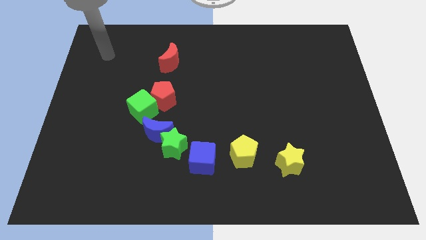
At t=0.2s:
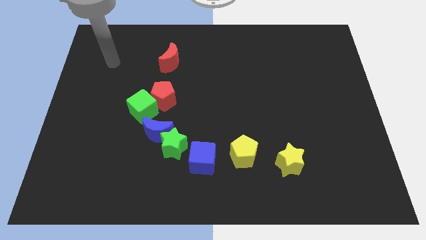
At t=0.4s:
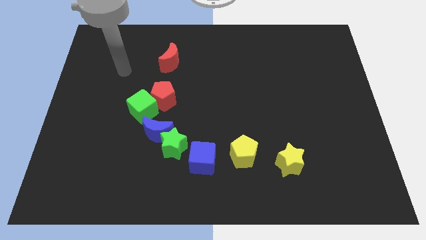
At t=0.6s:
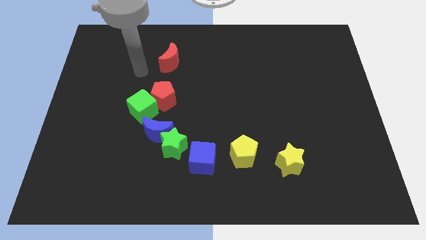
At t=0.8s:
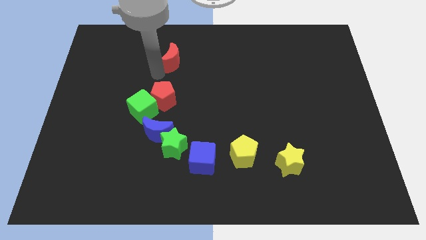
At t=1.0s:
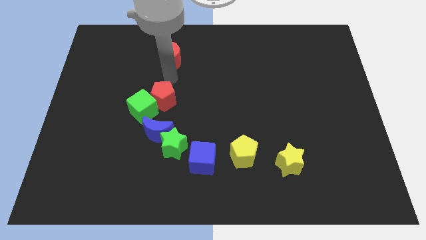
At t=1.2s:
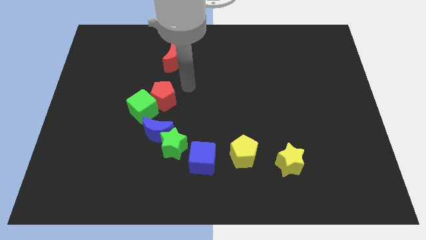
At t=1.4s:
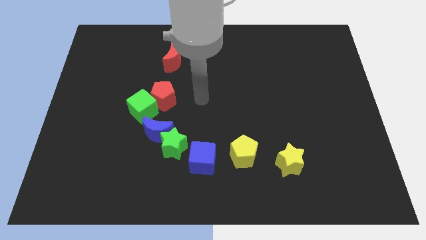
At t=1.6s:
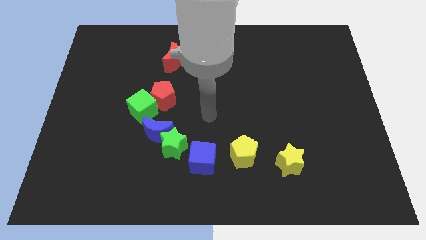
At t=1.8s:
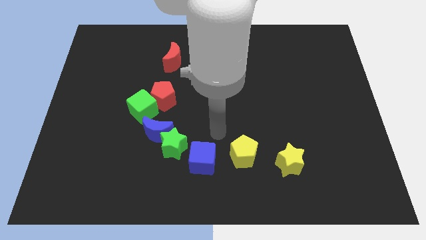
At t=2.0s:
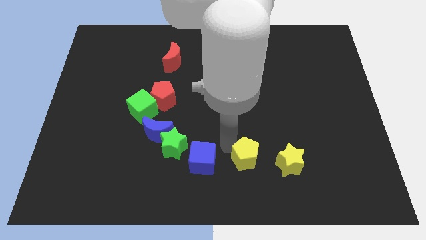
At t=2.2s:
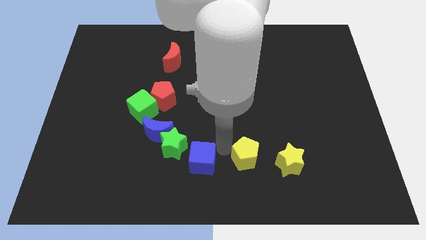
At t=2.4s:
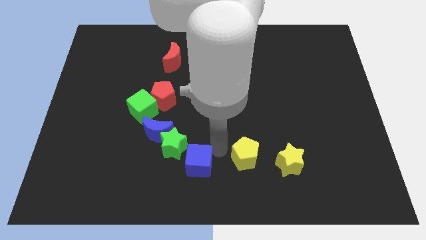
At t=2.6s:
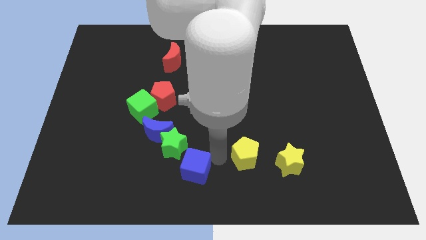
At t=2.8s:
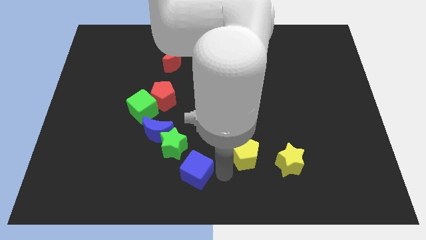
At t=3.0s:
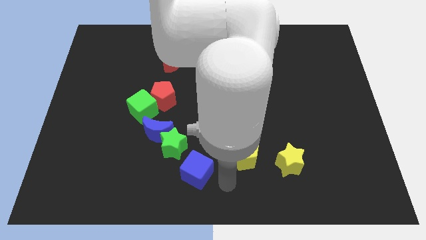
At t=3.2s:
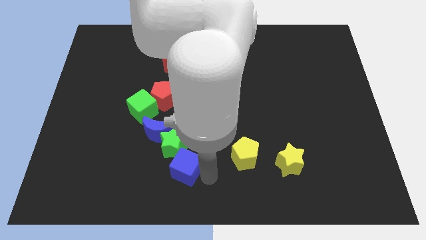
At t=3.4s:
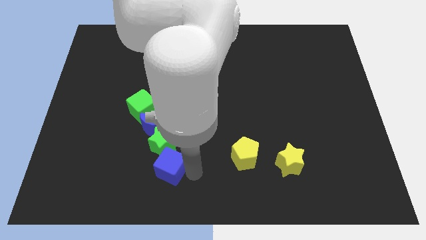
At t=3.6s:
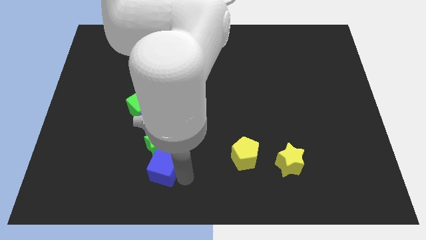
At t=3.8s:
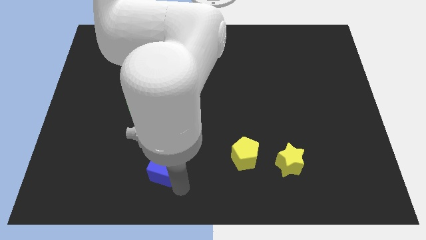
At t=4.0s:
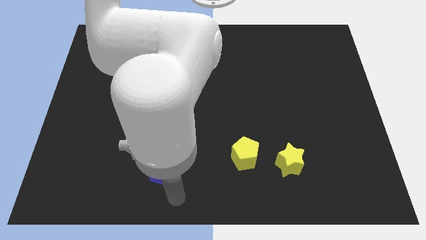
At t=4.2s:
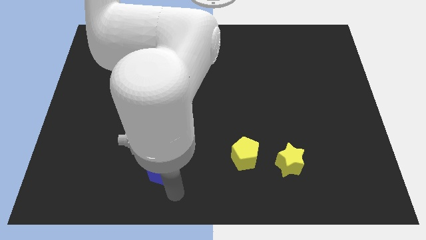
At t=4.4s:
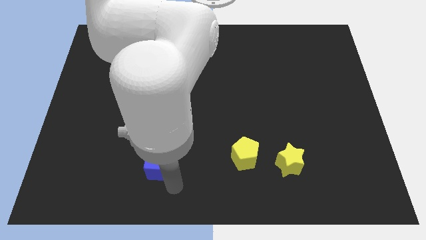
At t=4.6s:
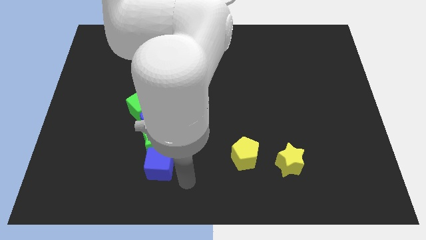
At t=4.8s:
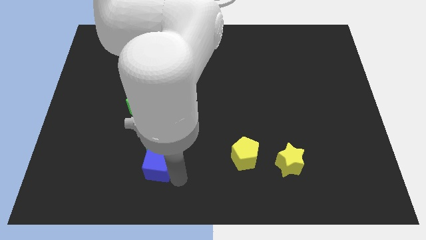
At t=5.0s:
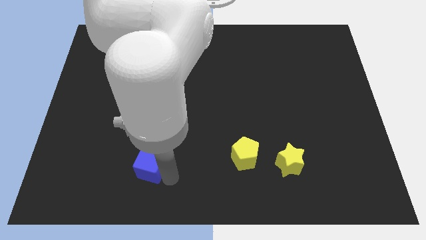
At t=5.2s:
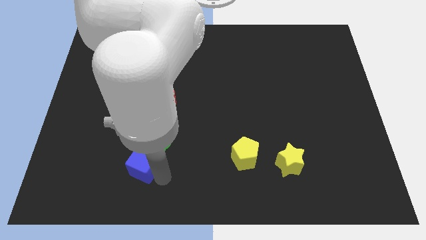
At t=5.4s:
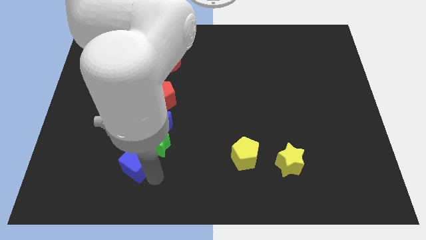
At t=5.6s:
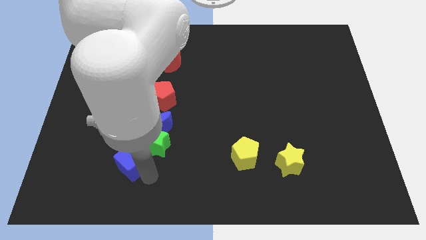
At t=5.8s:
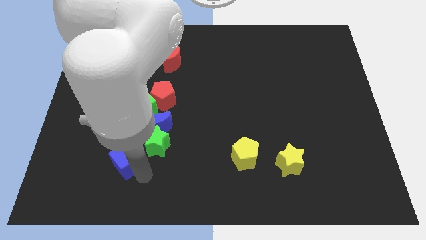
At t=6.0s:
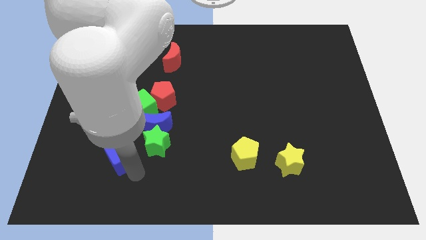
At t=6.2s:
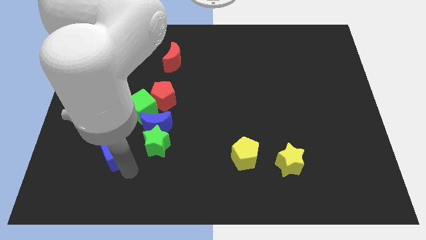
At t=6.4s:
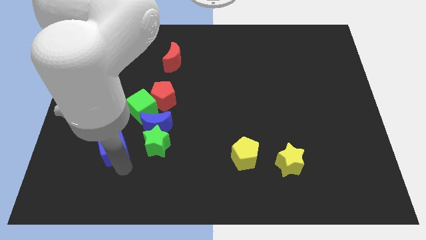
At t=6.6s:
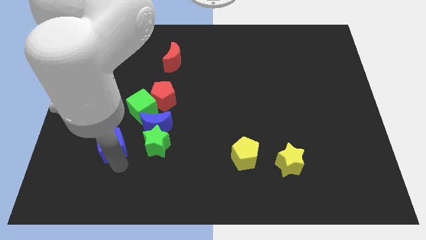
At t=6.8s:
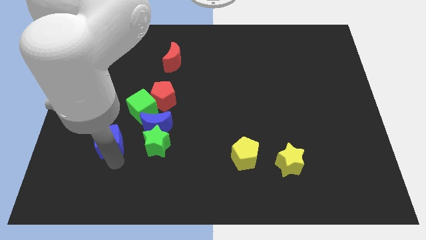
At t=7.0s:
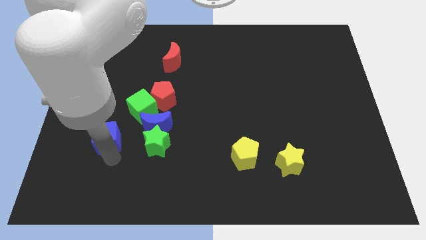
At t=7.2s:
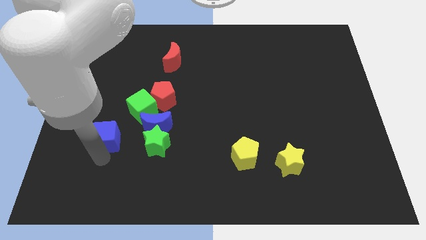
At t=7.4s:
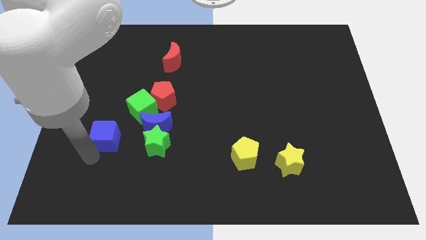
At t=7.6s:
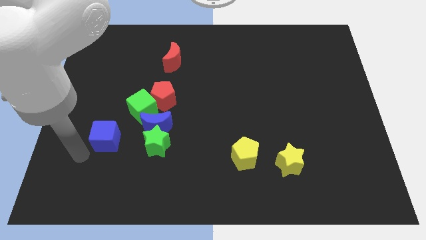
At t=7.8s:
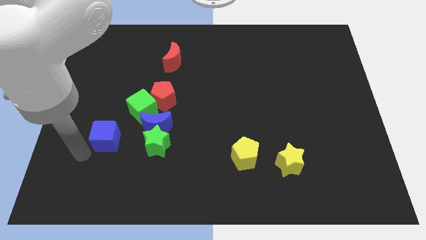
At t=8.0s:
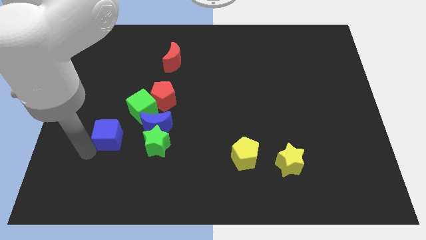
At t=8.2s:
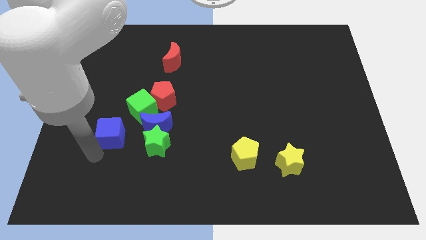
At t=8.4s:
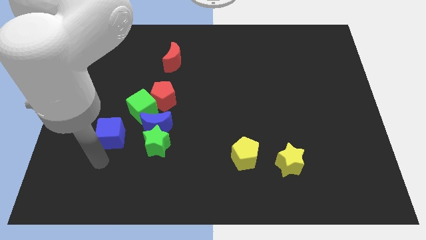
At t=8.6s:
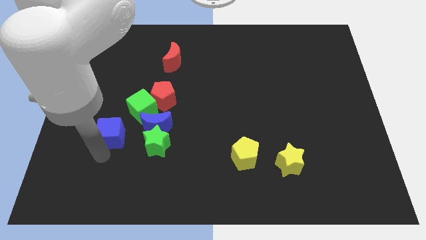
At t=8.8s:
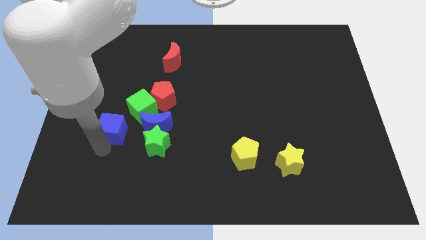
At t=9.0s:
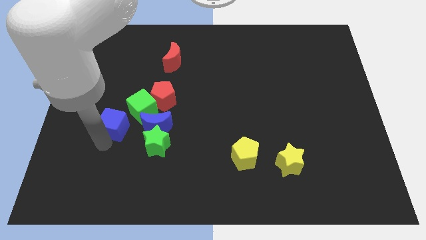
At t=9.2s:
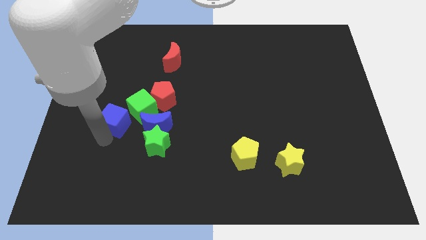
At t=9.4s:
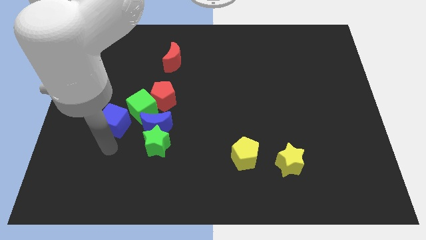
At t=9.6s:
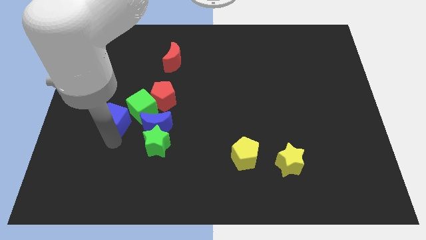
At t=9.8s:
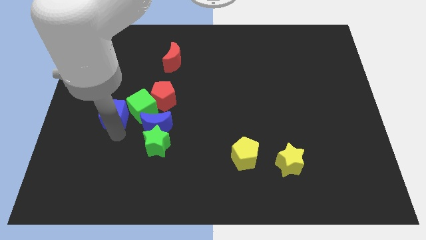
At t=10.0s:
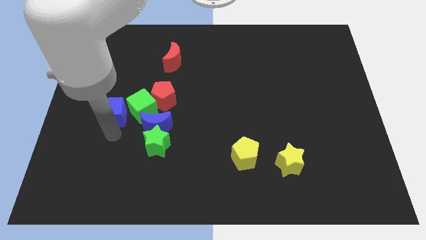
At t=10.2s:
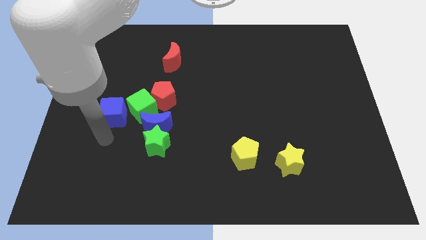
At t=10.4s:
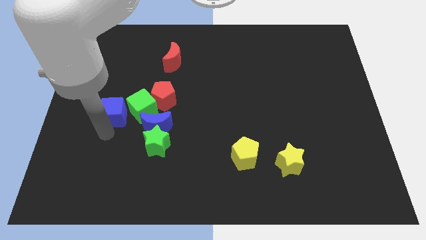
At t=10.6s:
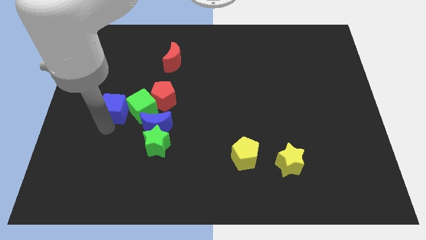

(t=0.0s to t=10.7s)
put the blue cube to the top left of the green cube

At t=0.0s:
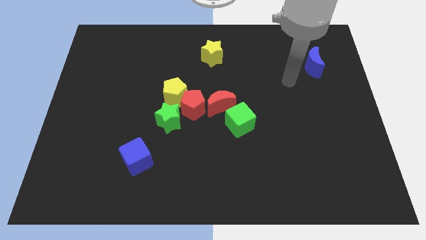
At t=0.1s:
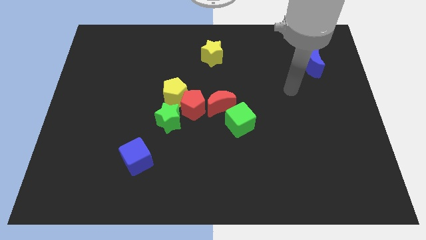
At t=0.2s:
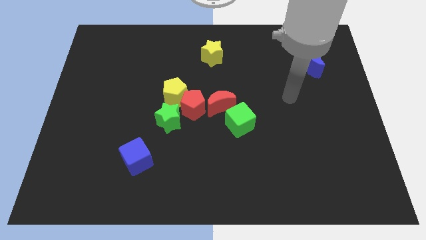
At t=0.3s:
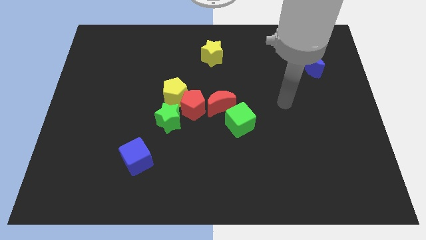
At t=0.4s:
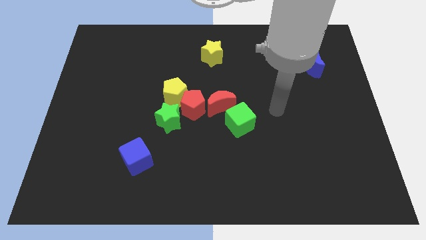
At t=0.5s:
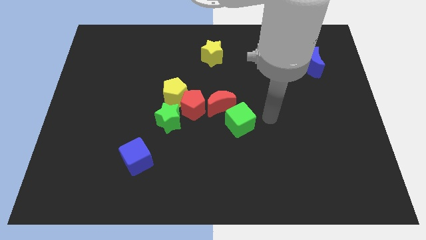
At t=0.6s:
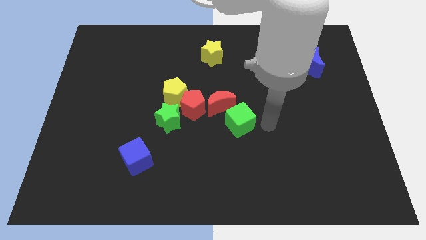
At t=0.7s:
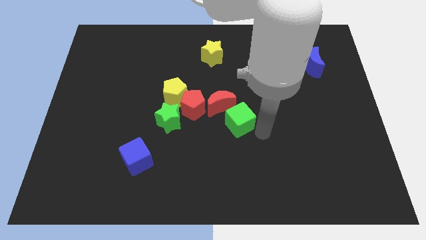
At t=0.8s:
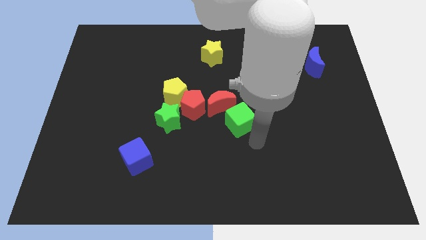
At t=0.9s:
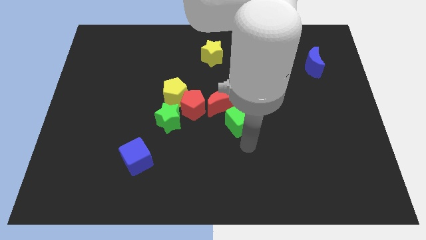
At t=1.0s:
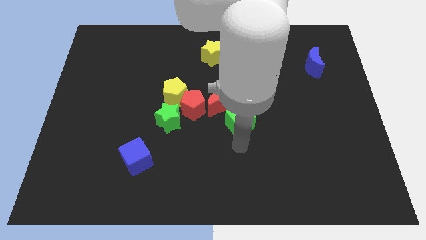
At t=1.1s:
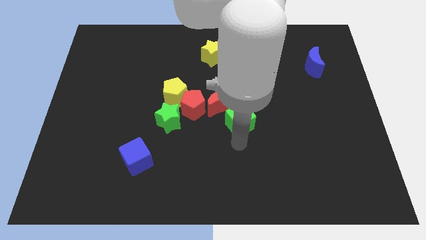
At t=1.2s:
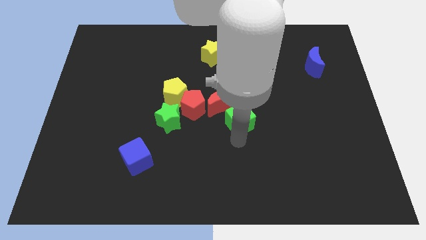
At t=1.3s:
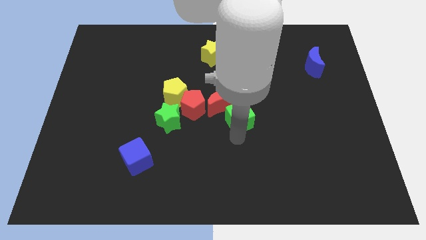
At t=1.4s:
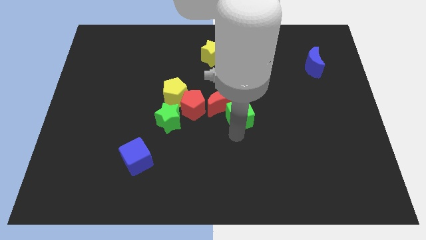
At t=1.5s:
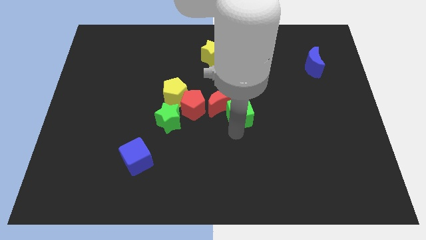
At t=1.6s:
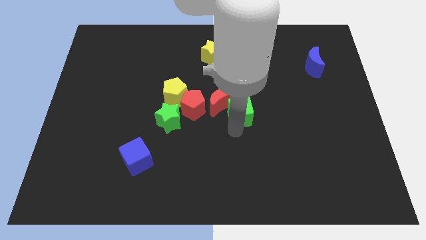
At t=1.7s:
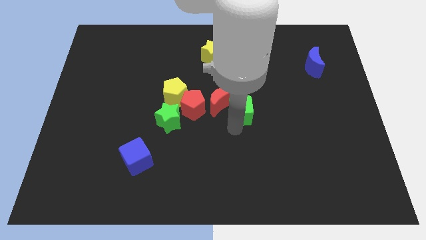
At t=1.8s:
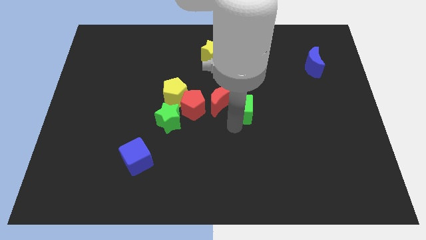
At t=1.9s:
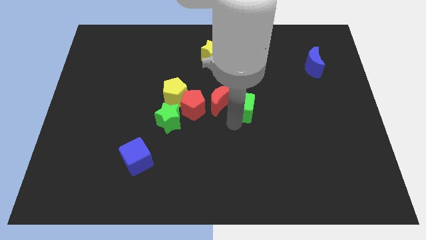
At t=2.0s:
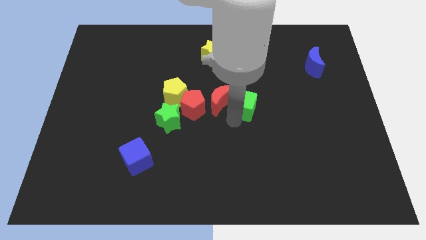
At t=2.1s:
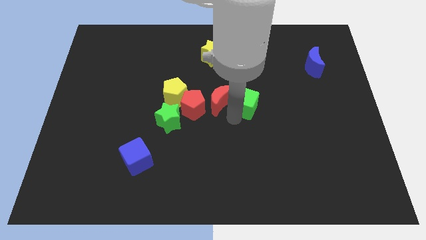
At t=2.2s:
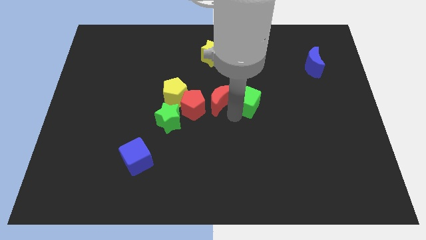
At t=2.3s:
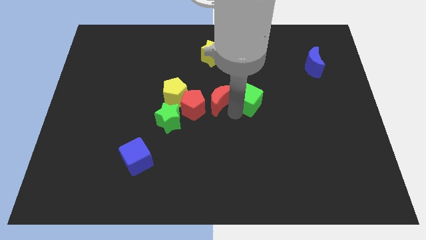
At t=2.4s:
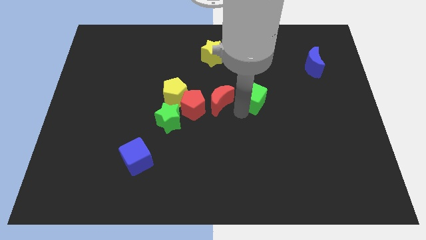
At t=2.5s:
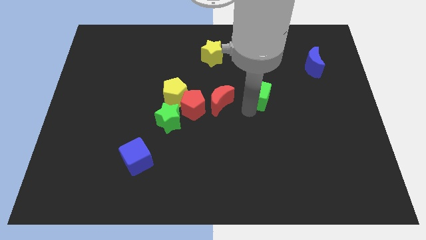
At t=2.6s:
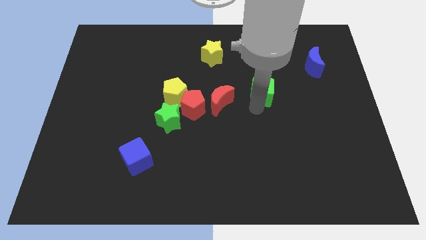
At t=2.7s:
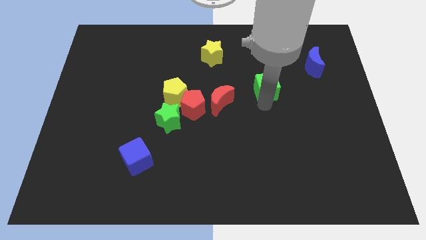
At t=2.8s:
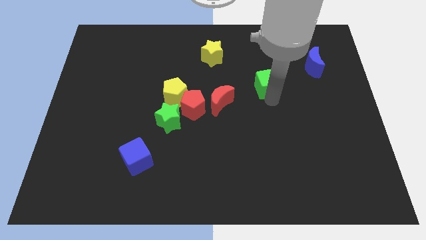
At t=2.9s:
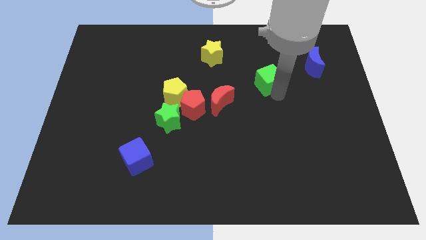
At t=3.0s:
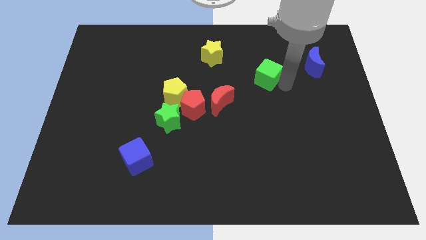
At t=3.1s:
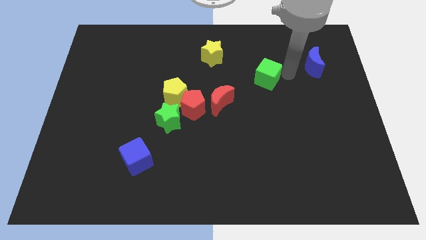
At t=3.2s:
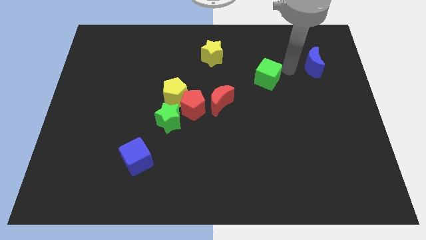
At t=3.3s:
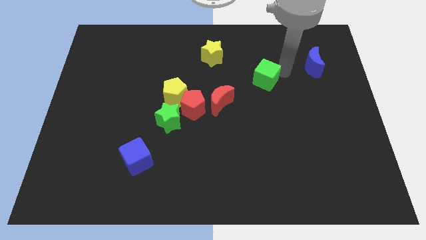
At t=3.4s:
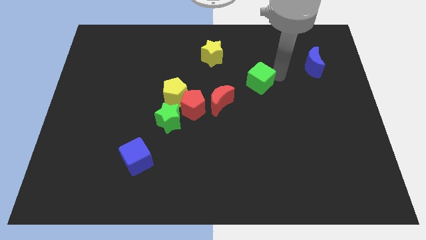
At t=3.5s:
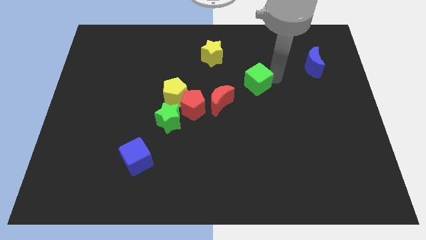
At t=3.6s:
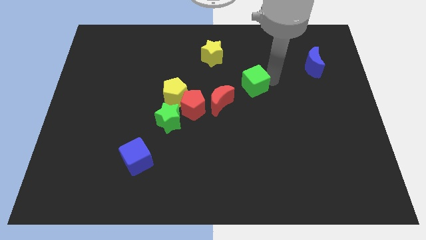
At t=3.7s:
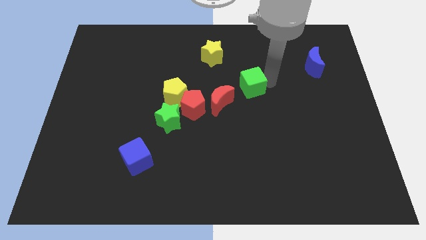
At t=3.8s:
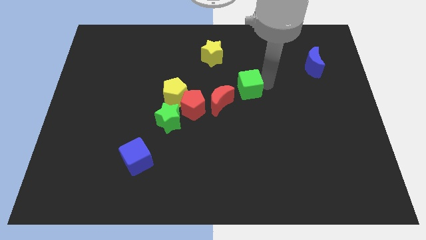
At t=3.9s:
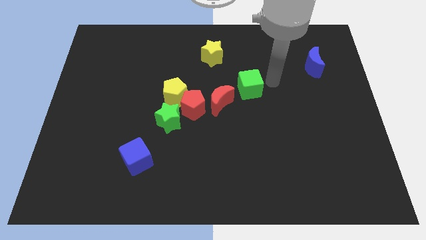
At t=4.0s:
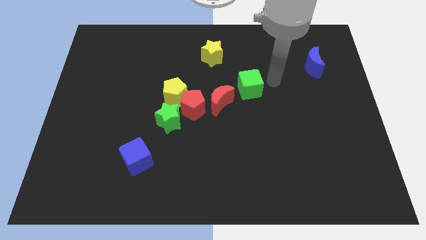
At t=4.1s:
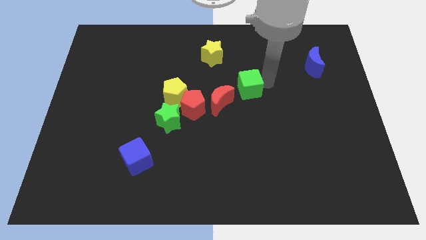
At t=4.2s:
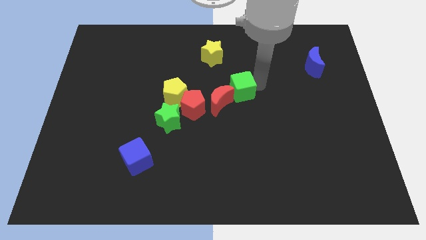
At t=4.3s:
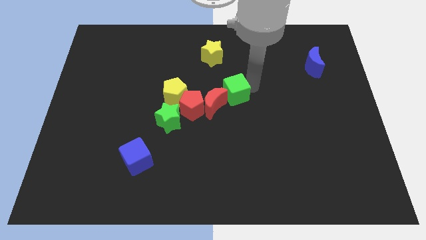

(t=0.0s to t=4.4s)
move the green cube to the right of the yellow pentagon
